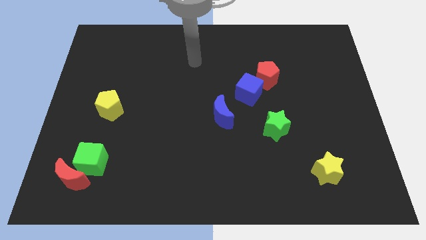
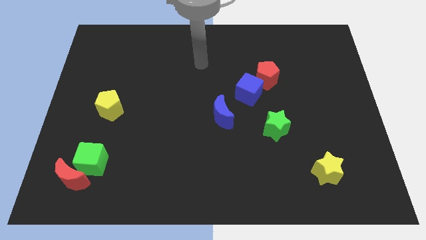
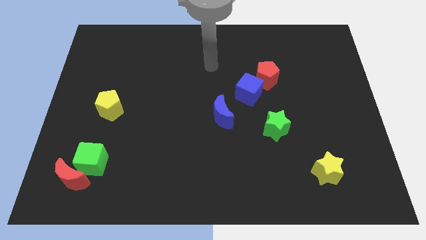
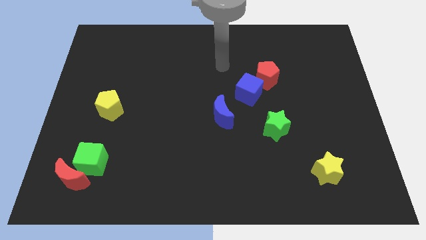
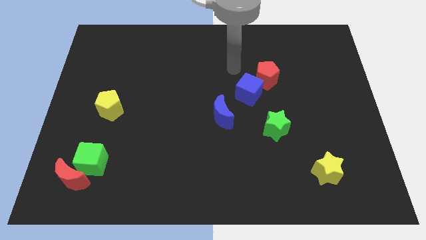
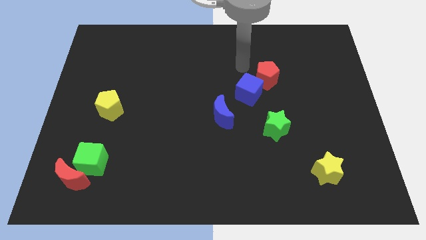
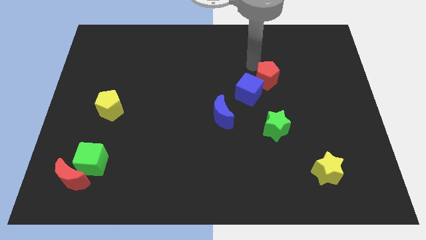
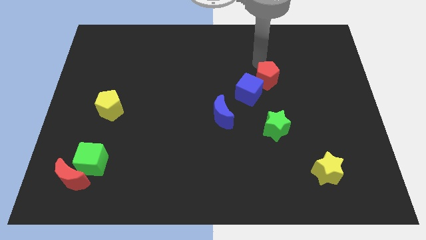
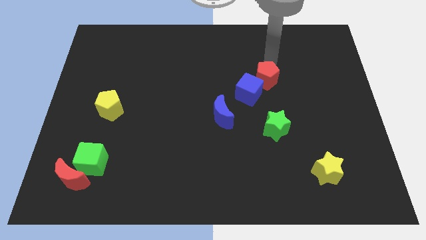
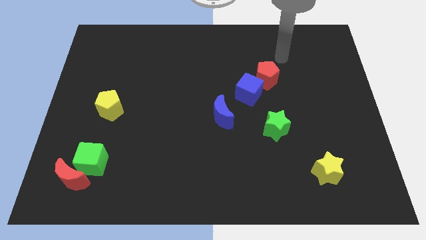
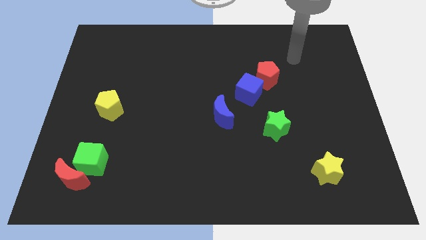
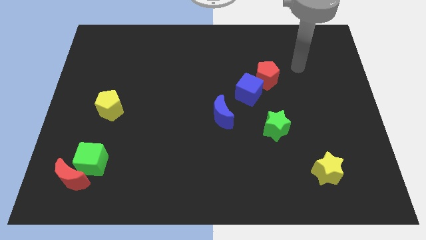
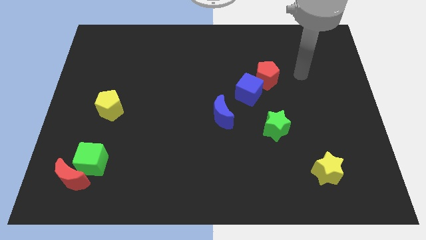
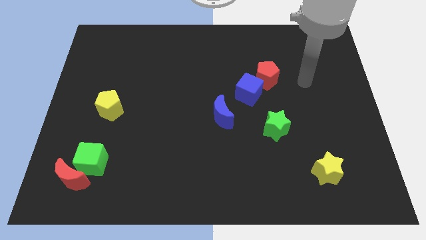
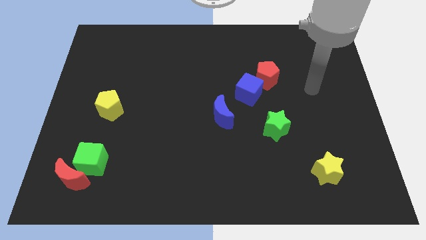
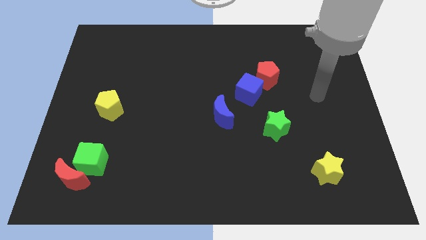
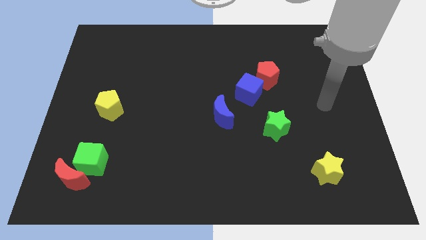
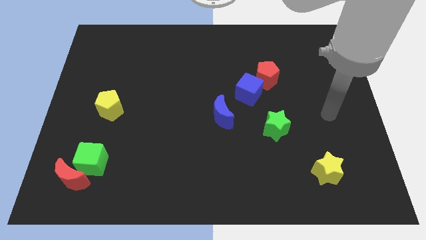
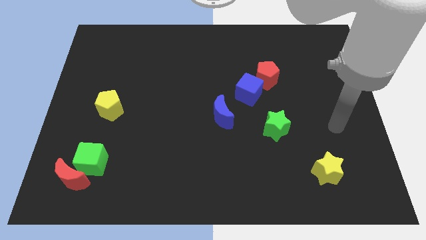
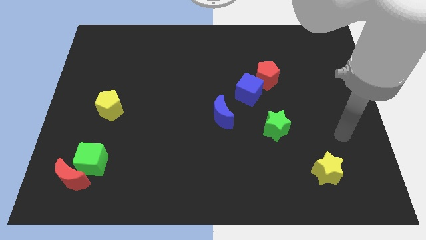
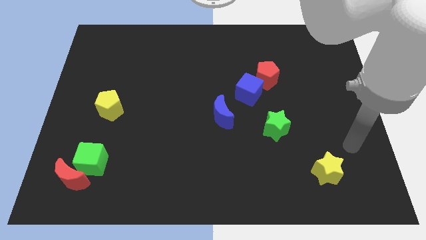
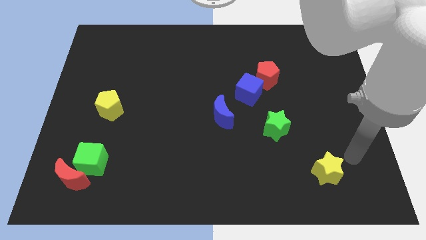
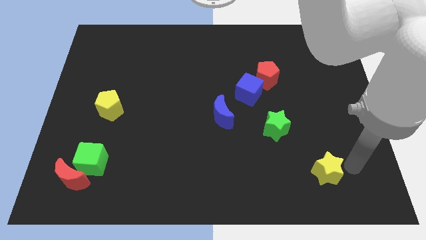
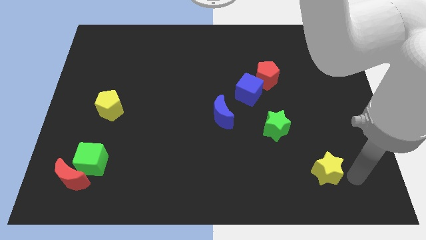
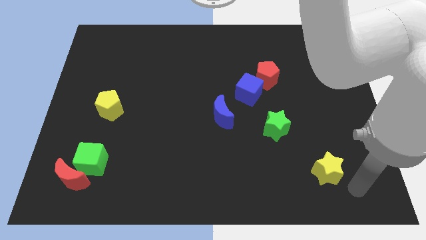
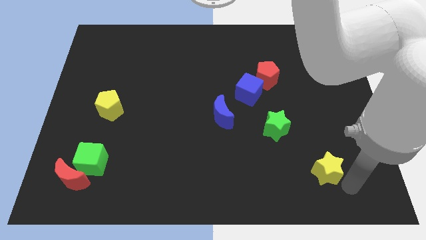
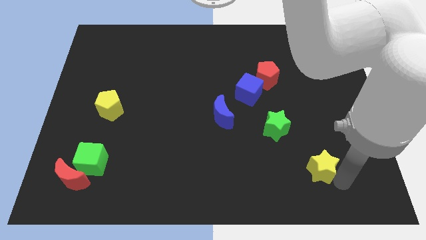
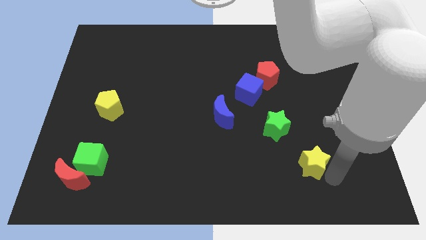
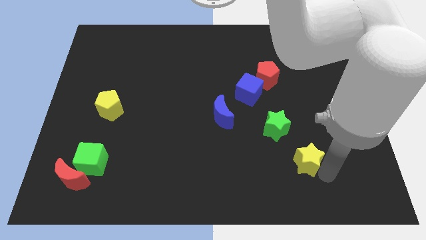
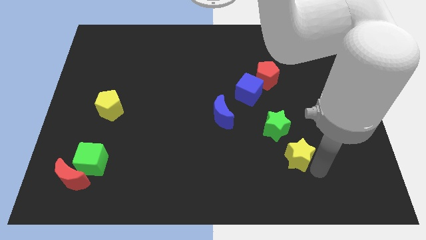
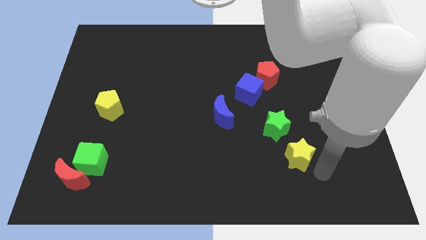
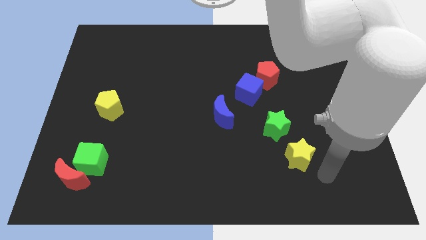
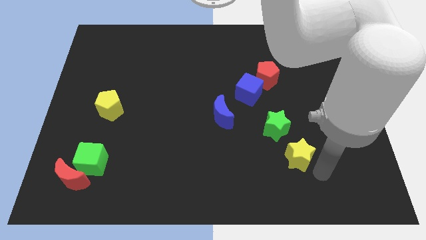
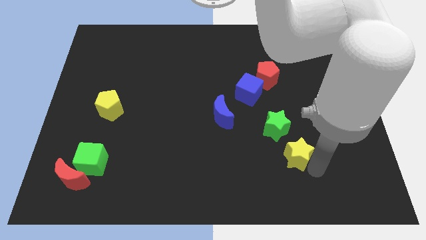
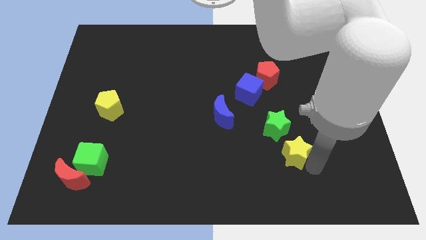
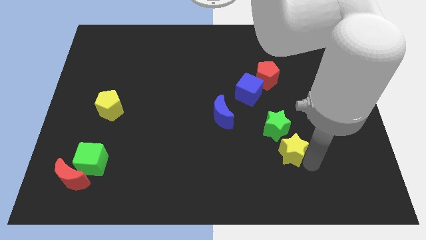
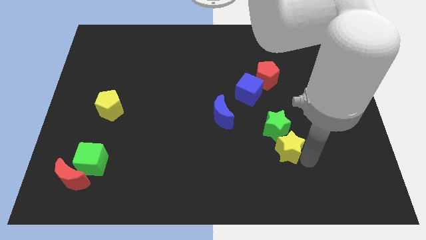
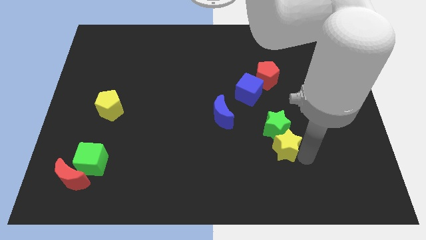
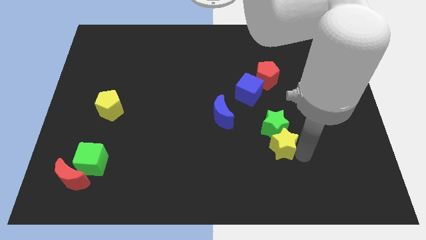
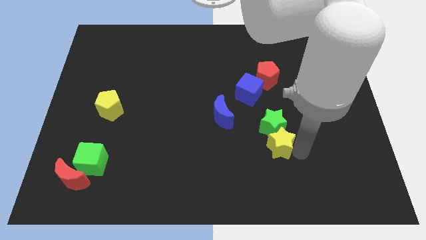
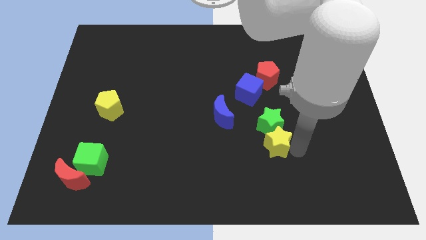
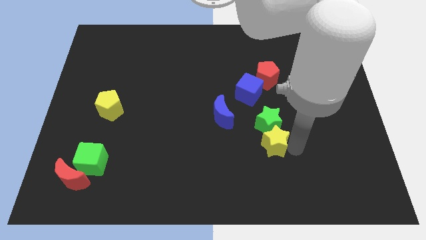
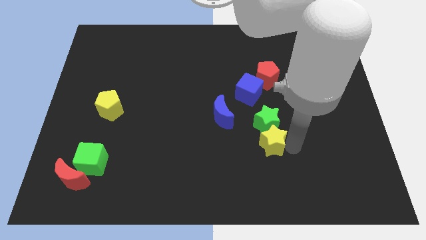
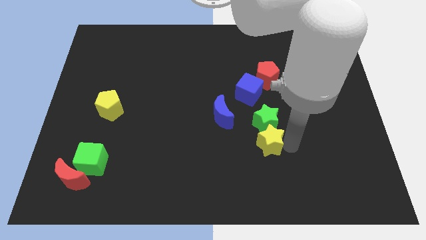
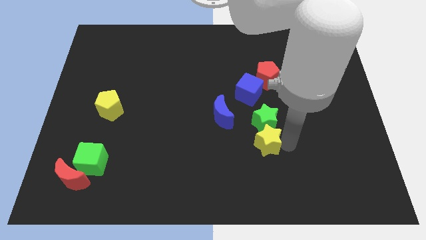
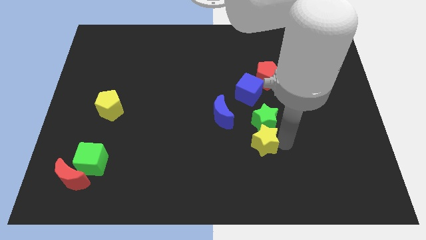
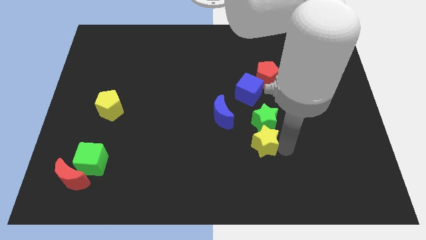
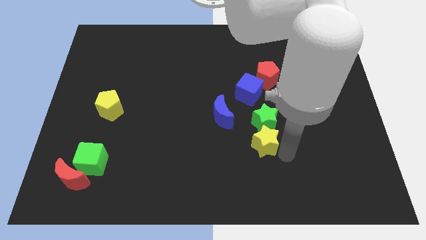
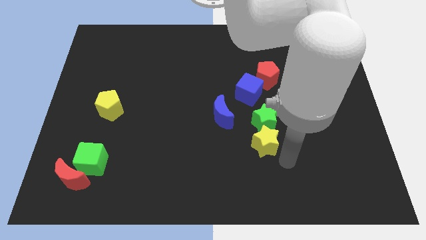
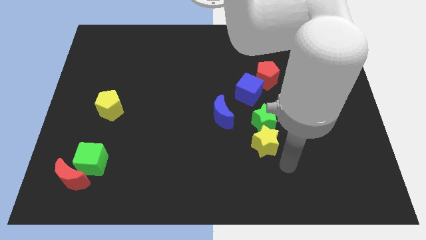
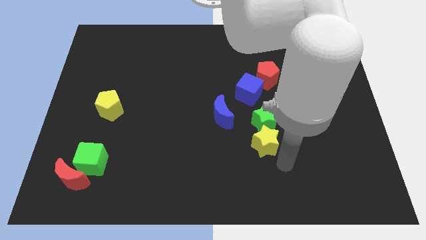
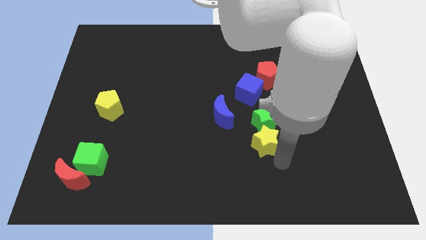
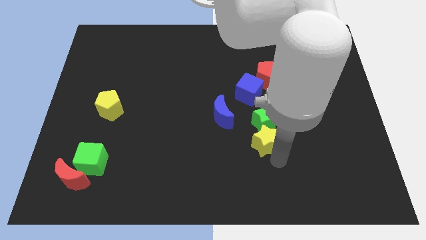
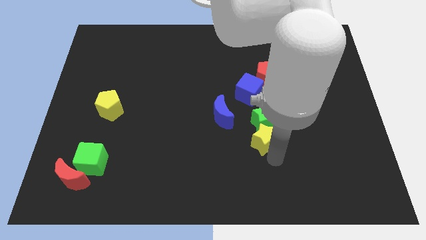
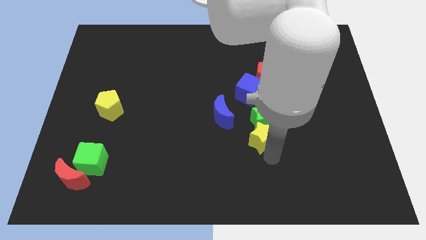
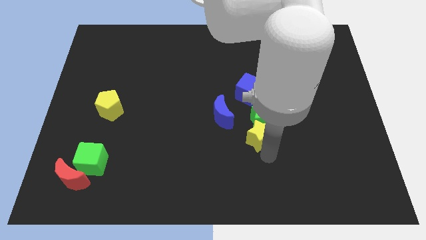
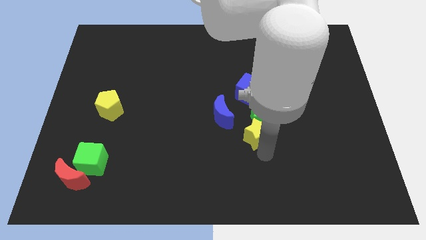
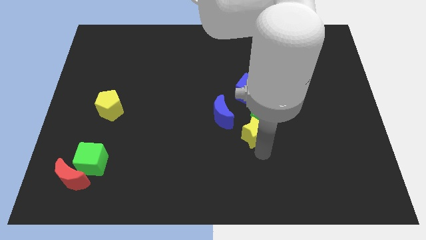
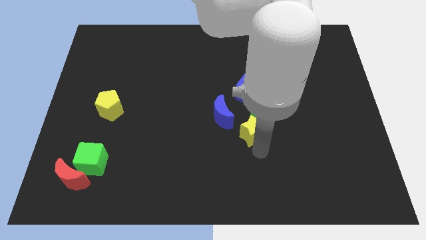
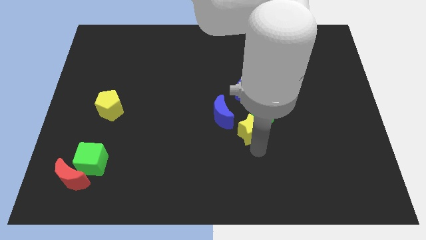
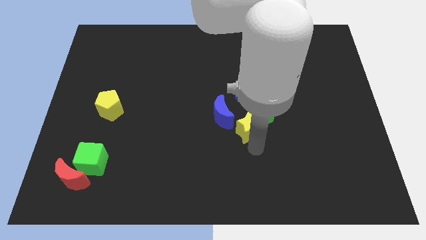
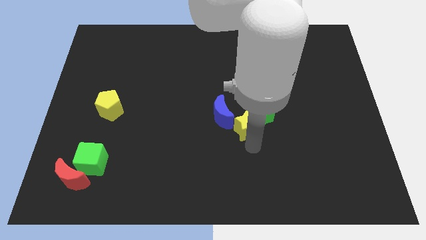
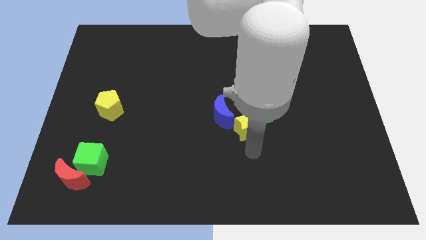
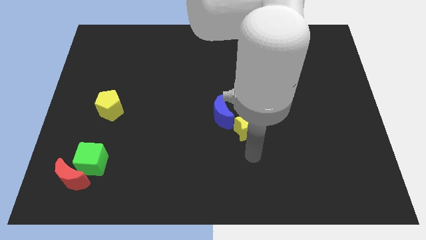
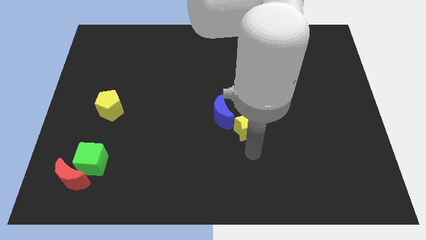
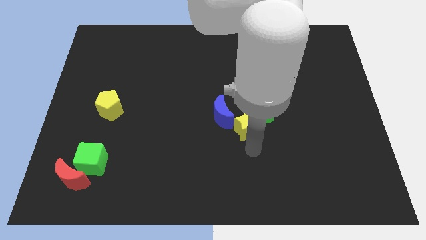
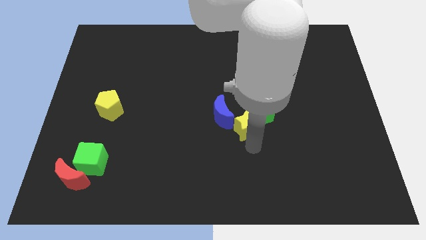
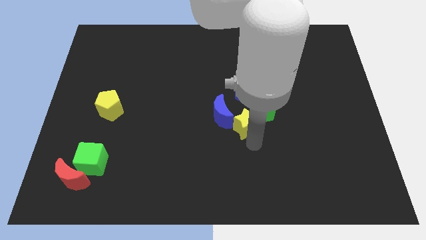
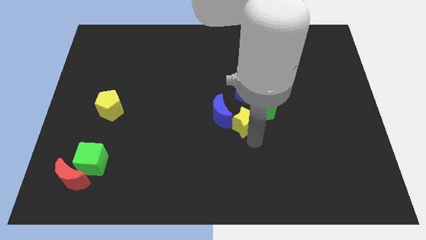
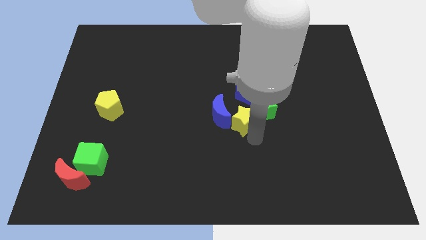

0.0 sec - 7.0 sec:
slide the yellow star upwards and then left

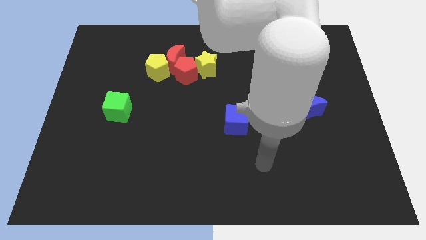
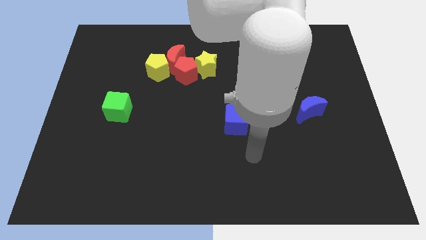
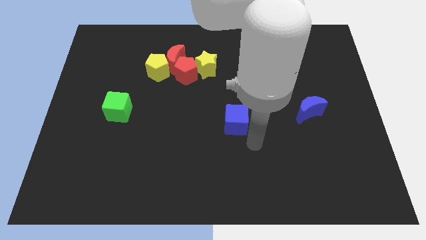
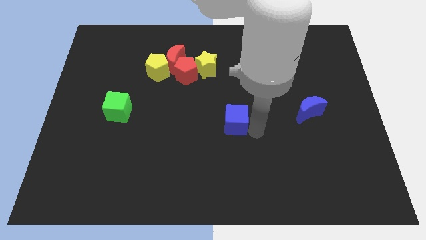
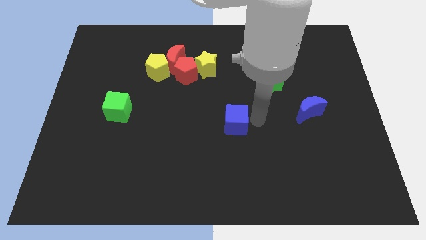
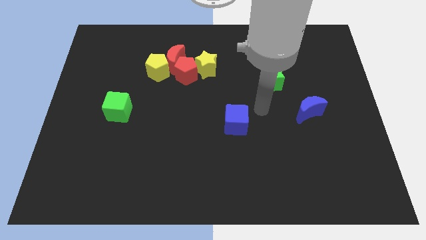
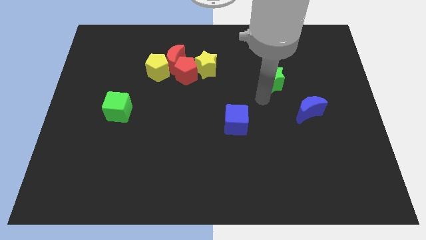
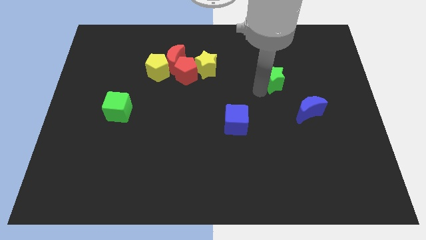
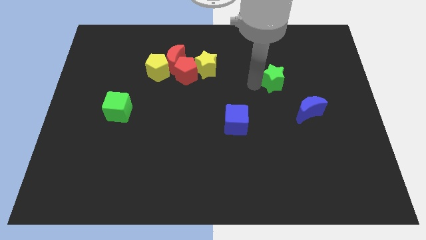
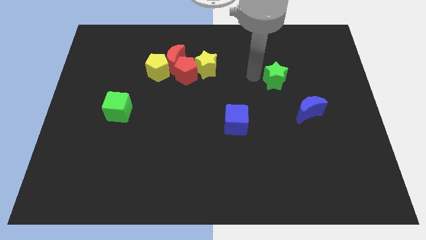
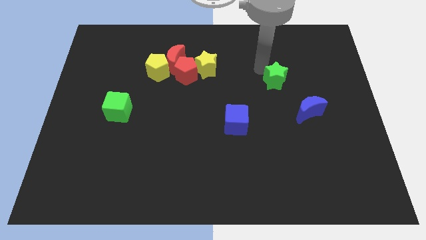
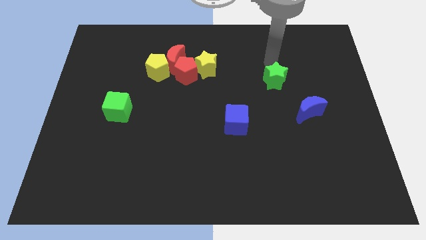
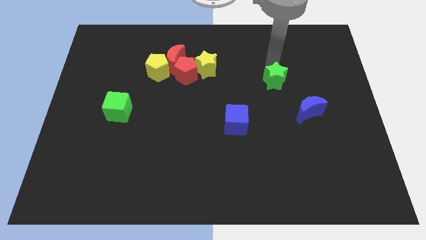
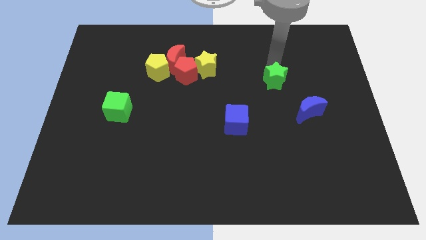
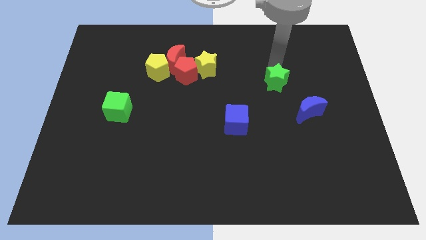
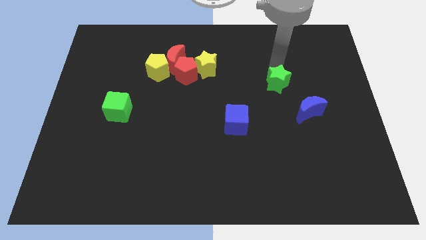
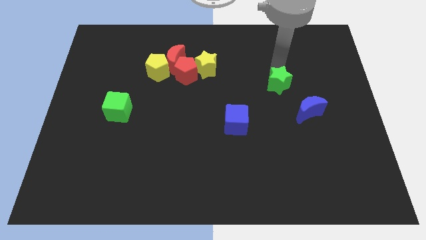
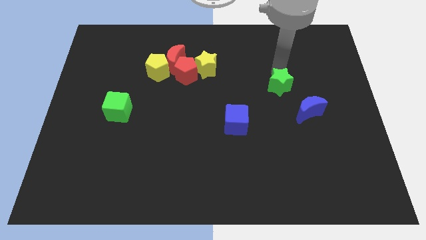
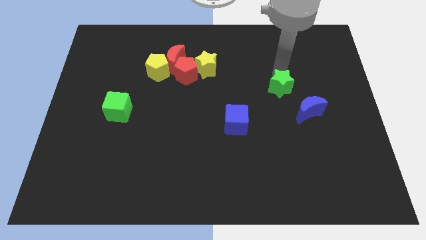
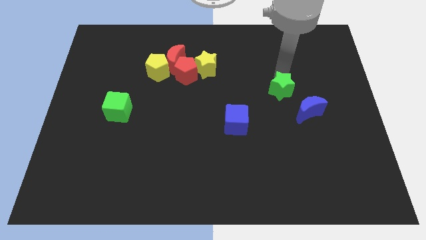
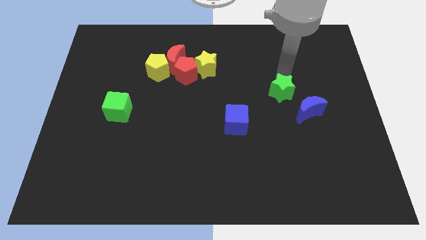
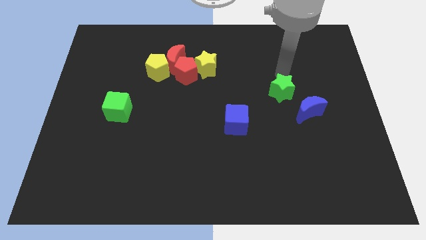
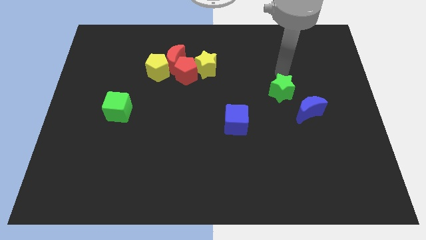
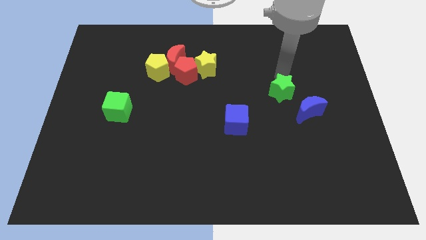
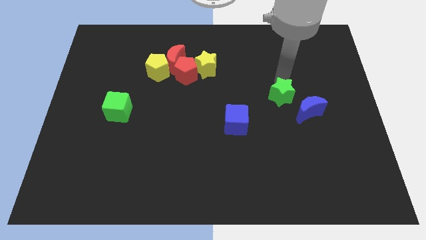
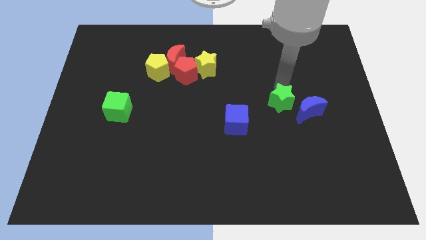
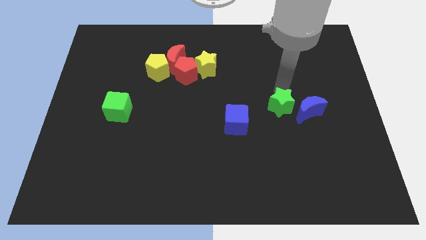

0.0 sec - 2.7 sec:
move the green star downwards a little bit
